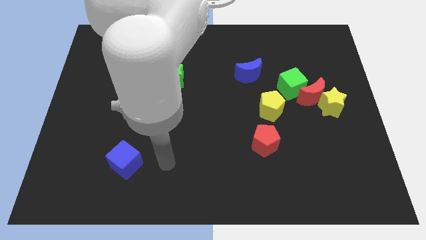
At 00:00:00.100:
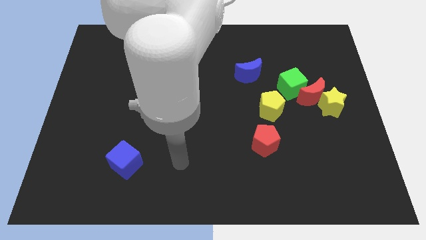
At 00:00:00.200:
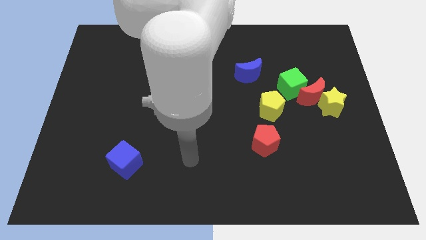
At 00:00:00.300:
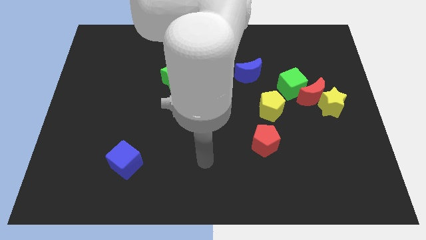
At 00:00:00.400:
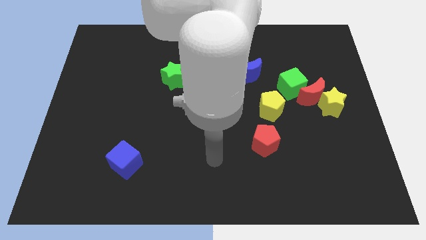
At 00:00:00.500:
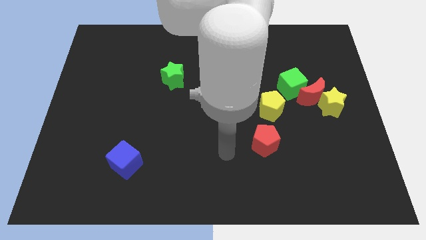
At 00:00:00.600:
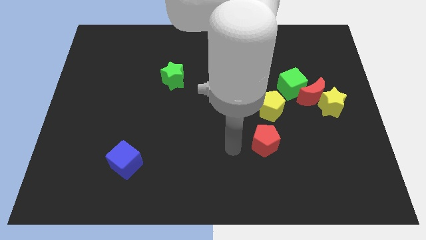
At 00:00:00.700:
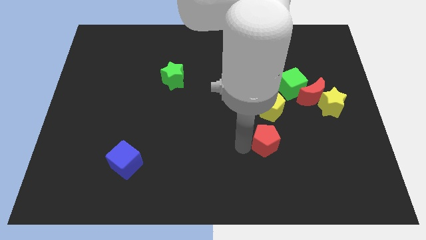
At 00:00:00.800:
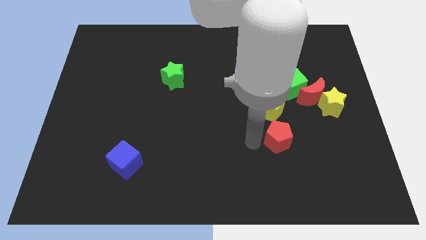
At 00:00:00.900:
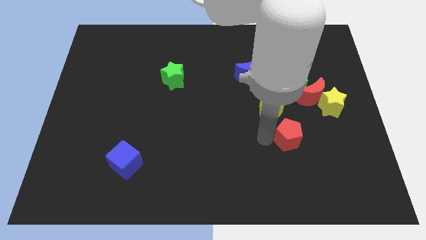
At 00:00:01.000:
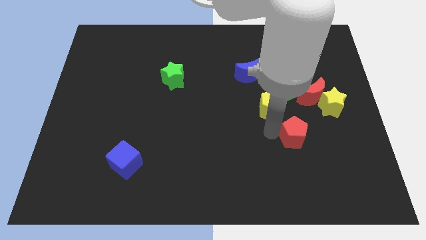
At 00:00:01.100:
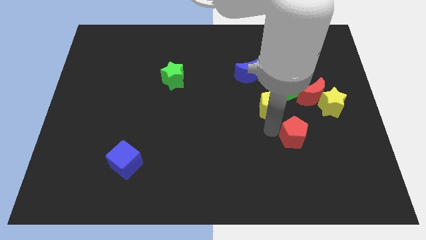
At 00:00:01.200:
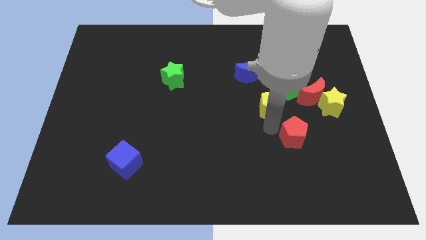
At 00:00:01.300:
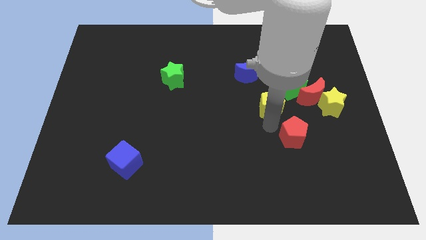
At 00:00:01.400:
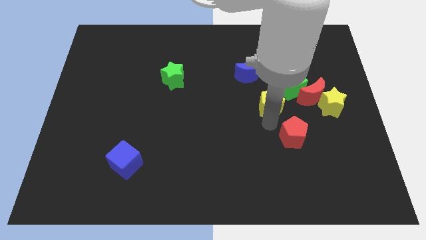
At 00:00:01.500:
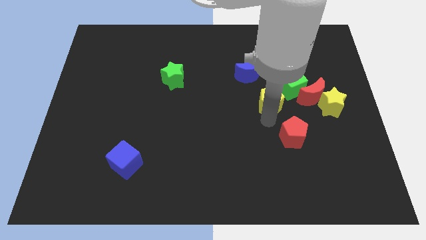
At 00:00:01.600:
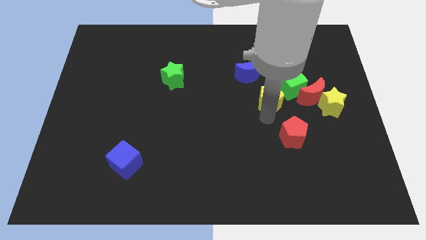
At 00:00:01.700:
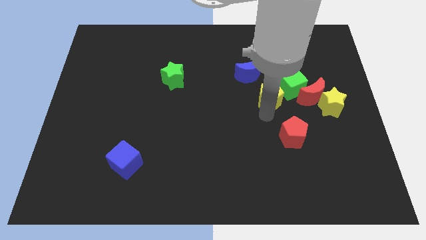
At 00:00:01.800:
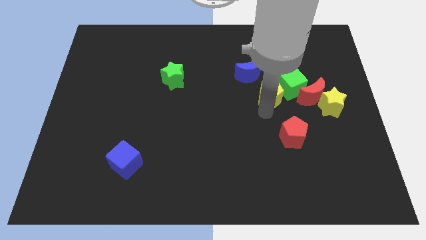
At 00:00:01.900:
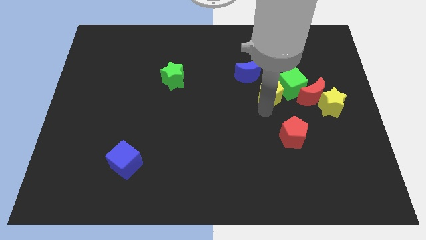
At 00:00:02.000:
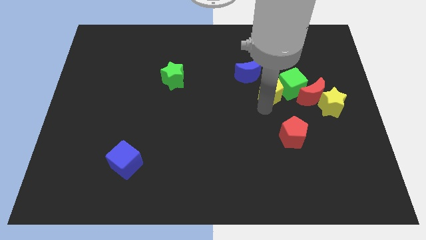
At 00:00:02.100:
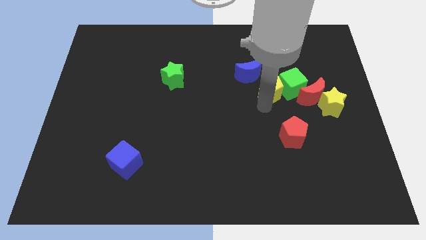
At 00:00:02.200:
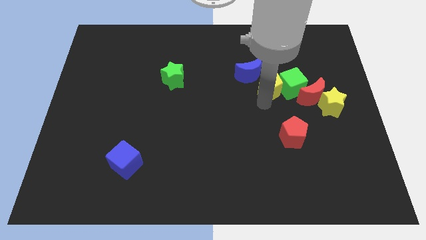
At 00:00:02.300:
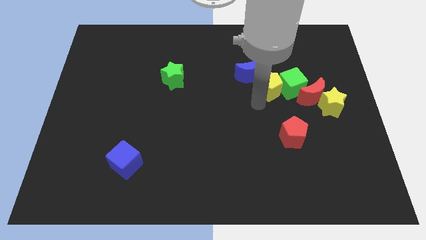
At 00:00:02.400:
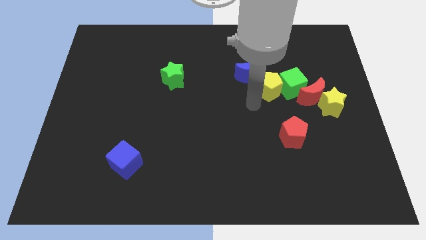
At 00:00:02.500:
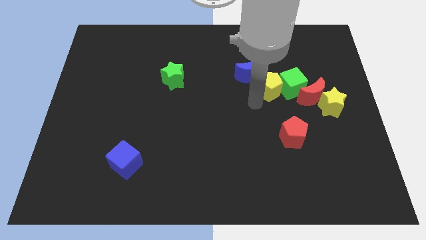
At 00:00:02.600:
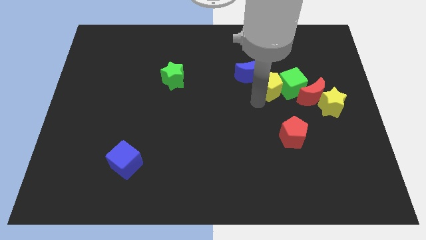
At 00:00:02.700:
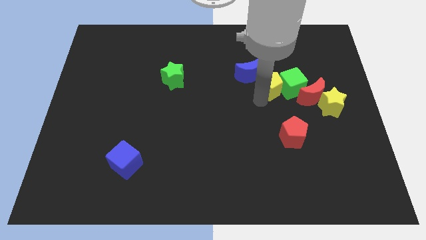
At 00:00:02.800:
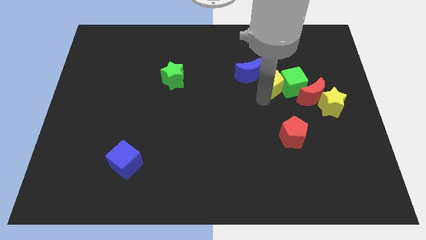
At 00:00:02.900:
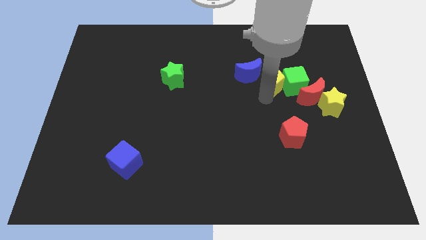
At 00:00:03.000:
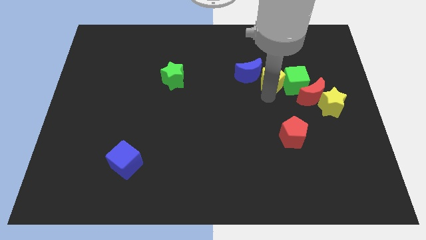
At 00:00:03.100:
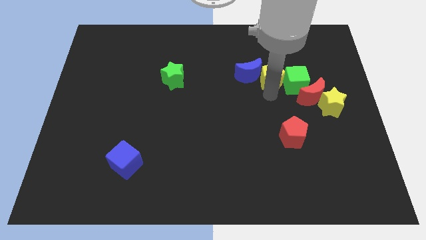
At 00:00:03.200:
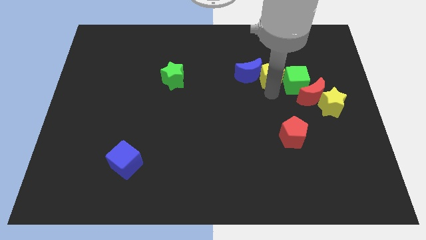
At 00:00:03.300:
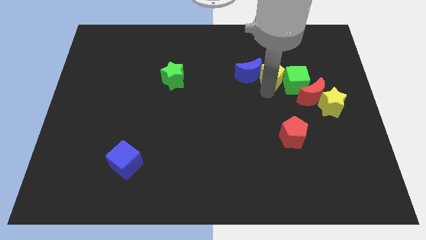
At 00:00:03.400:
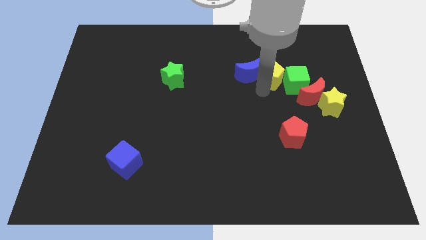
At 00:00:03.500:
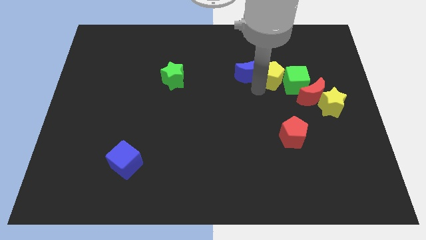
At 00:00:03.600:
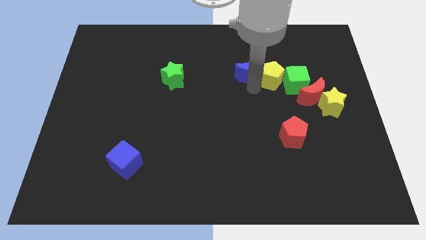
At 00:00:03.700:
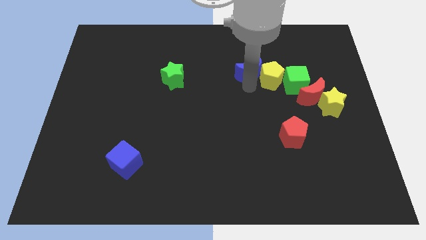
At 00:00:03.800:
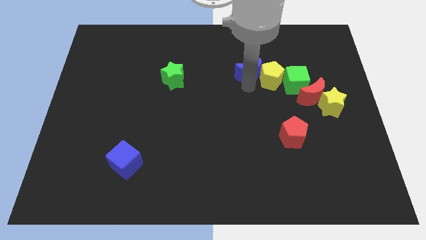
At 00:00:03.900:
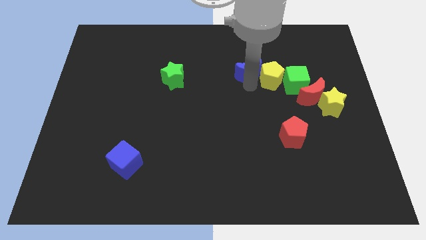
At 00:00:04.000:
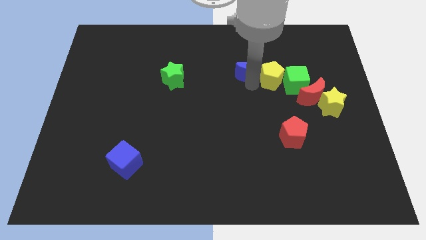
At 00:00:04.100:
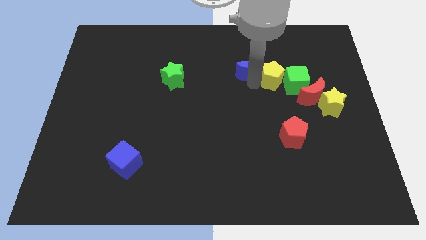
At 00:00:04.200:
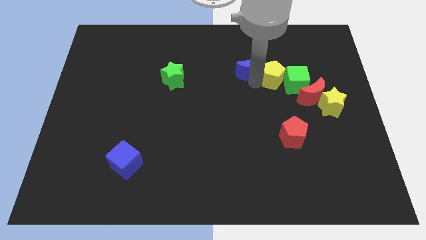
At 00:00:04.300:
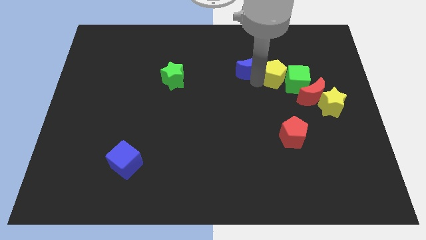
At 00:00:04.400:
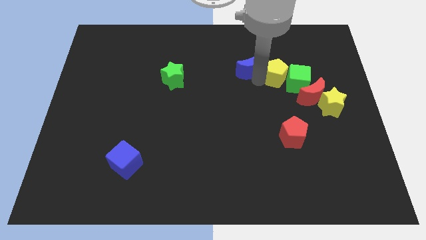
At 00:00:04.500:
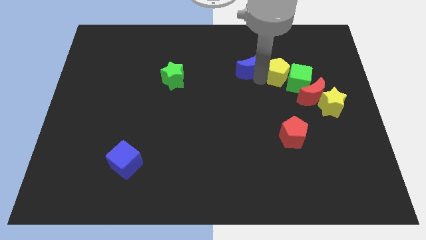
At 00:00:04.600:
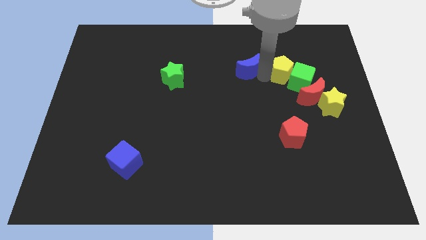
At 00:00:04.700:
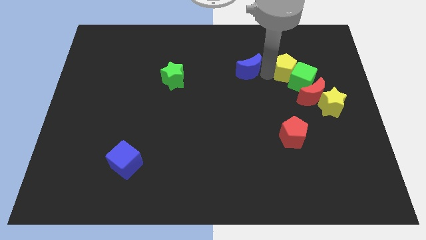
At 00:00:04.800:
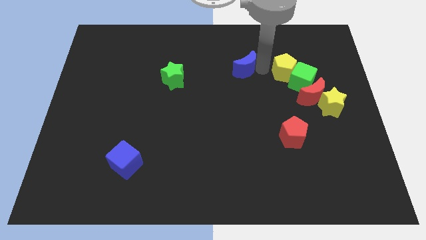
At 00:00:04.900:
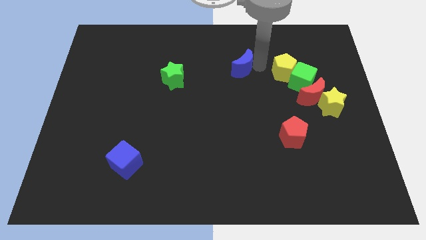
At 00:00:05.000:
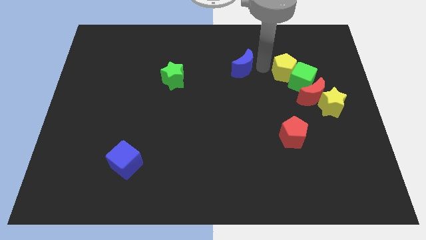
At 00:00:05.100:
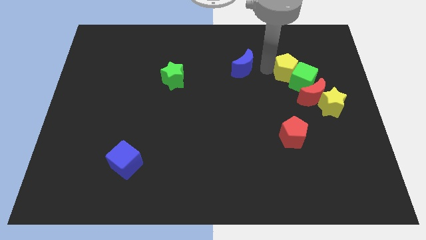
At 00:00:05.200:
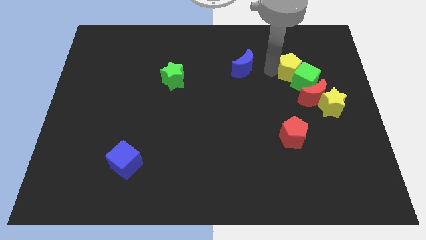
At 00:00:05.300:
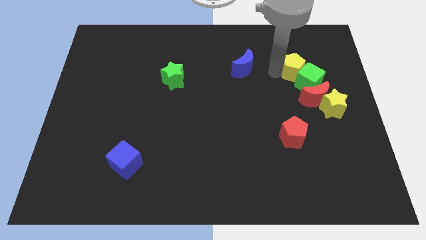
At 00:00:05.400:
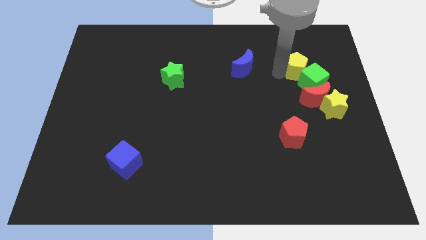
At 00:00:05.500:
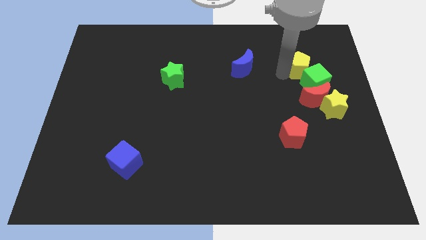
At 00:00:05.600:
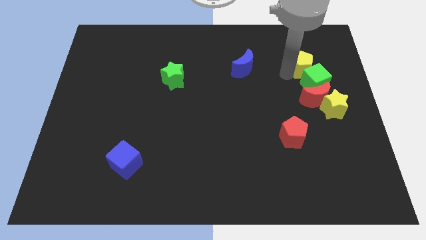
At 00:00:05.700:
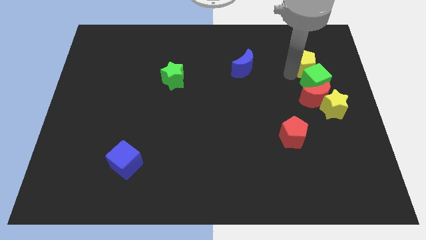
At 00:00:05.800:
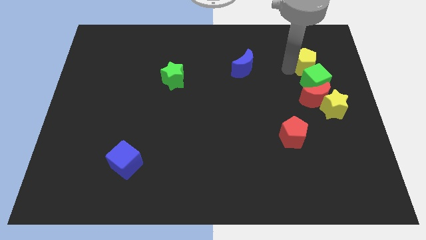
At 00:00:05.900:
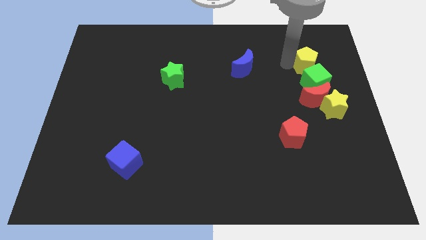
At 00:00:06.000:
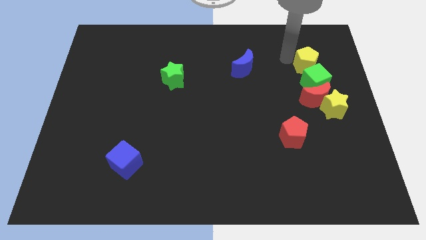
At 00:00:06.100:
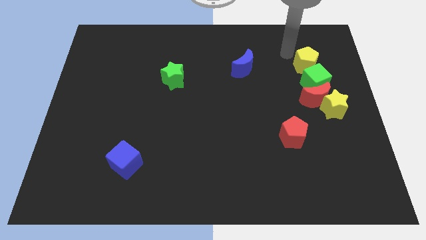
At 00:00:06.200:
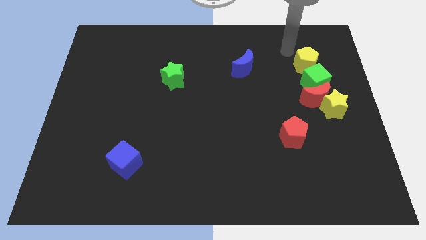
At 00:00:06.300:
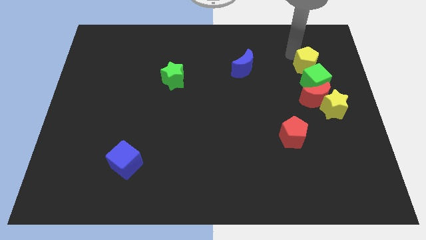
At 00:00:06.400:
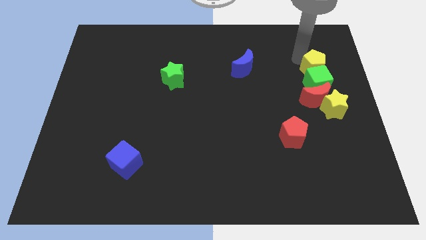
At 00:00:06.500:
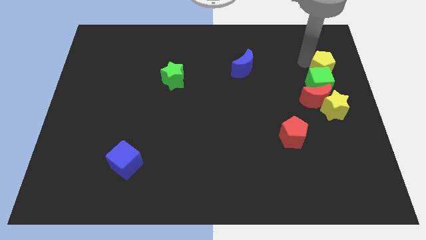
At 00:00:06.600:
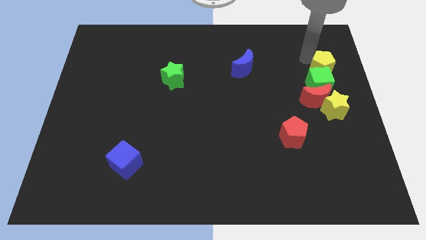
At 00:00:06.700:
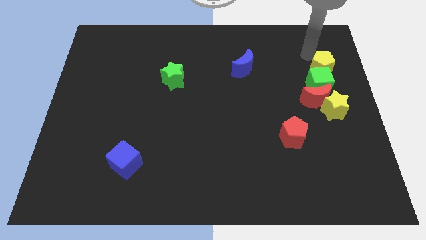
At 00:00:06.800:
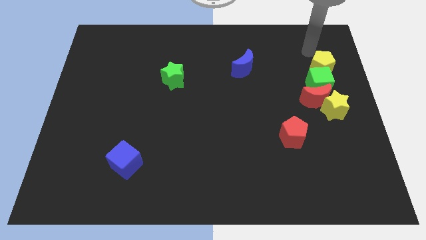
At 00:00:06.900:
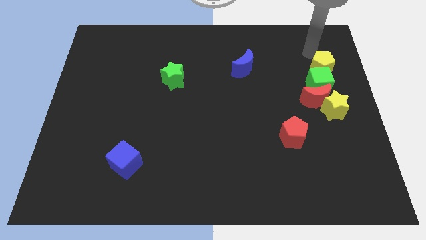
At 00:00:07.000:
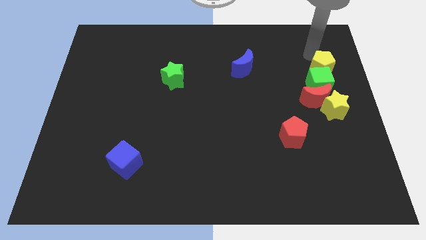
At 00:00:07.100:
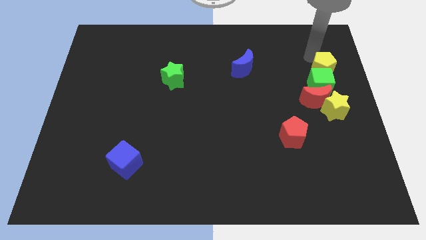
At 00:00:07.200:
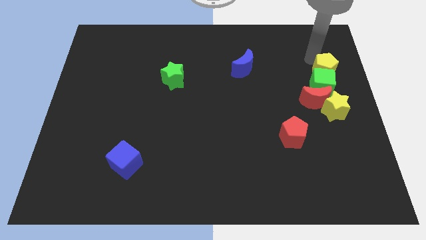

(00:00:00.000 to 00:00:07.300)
slide the yellow pentagon to the top right of the red moon
